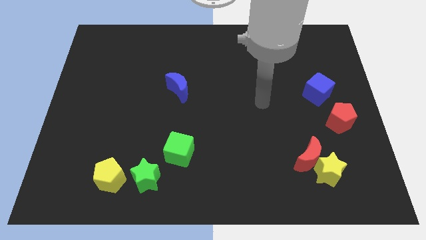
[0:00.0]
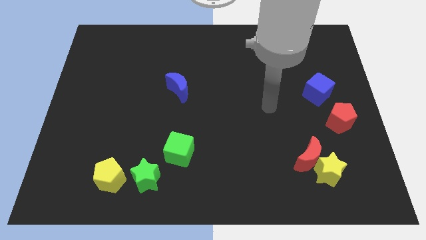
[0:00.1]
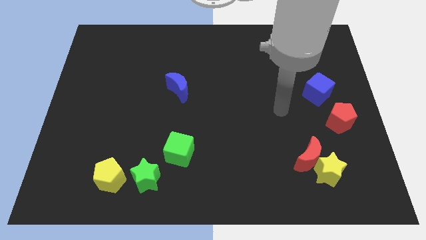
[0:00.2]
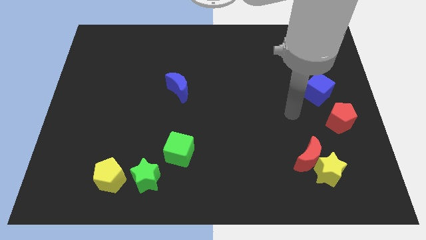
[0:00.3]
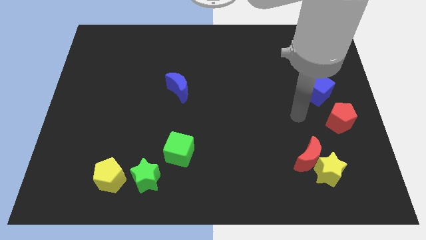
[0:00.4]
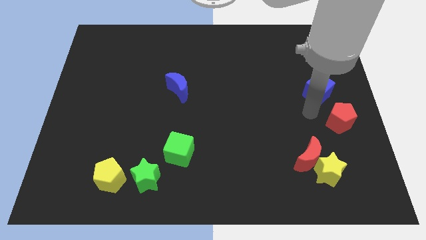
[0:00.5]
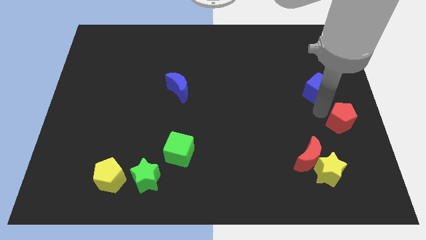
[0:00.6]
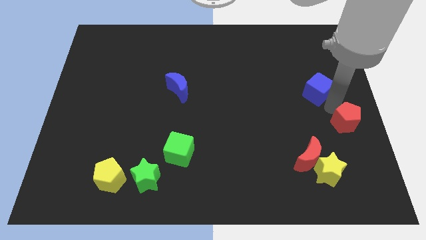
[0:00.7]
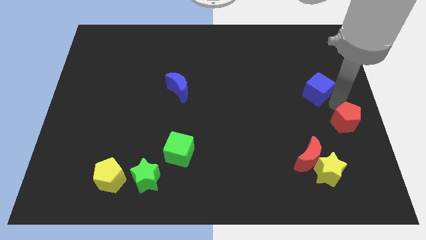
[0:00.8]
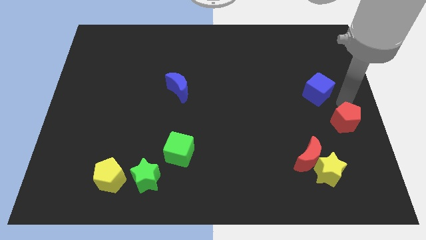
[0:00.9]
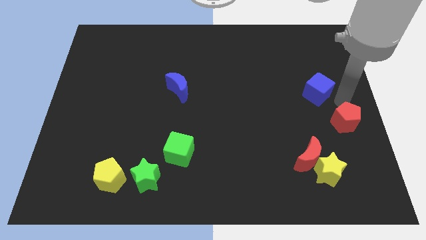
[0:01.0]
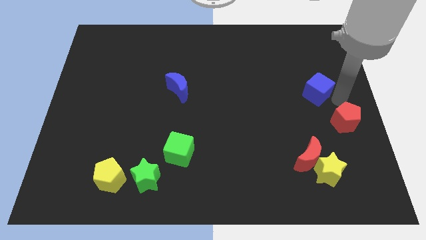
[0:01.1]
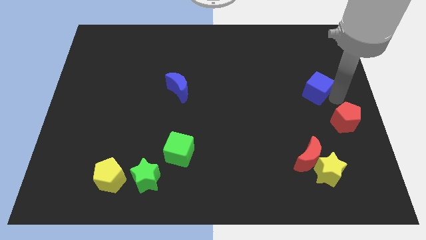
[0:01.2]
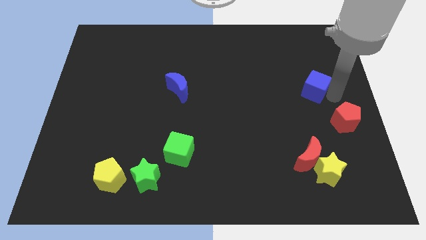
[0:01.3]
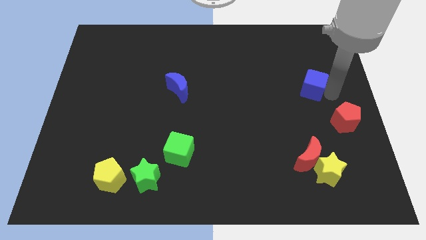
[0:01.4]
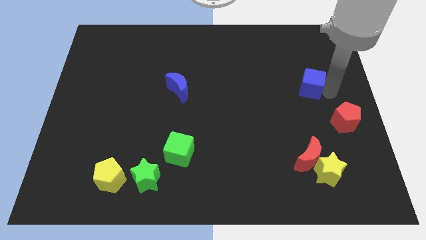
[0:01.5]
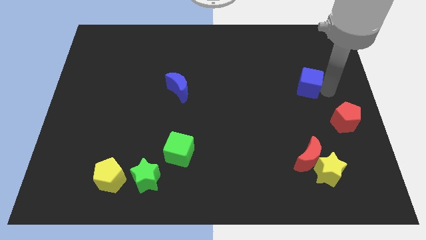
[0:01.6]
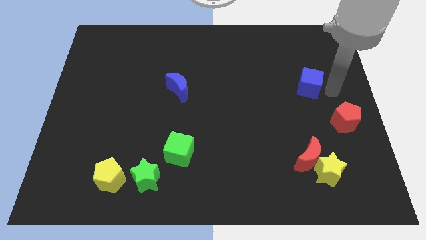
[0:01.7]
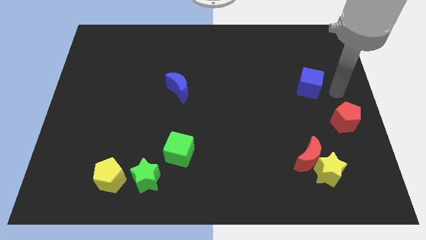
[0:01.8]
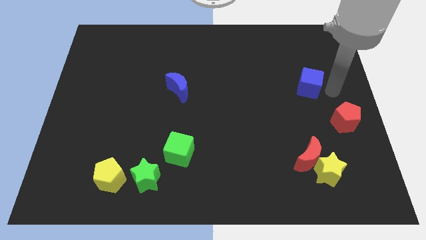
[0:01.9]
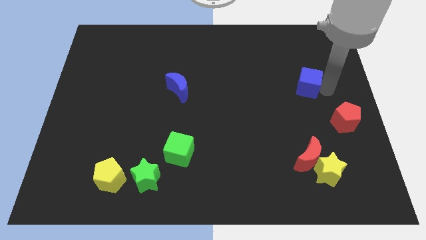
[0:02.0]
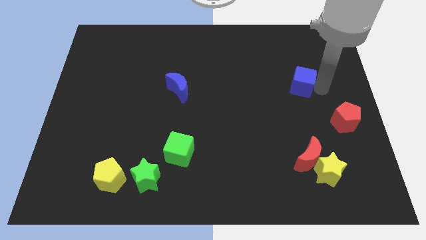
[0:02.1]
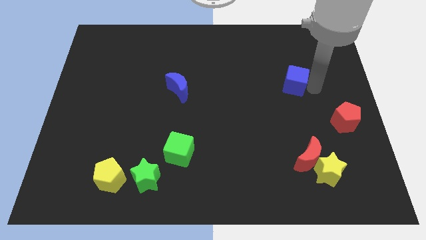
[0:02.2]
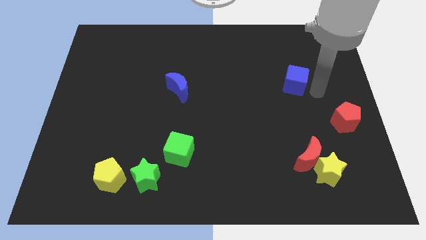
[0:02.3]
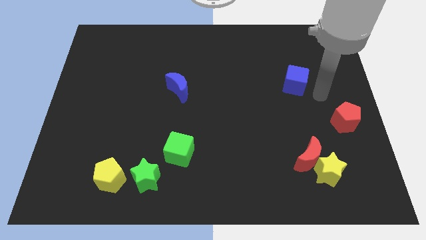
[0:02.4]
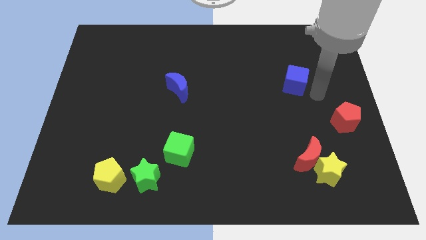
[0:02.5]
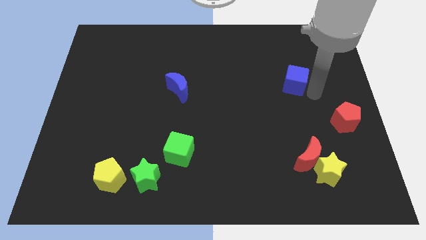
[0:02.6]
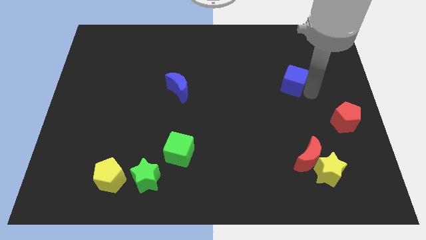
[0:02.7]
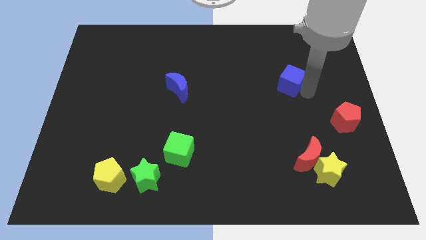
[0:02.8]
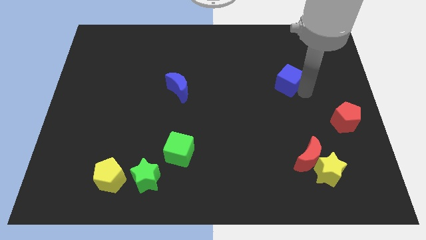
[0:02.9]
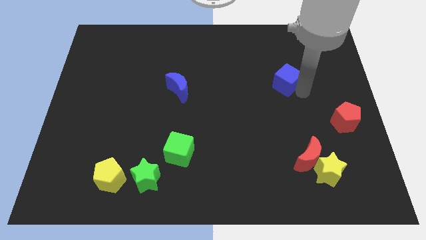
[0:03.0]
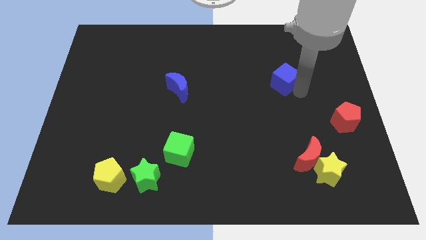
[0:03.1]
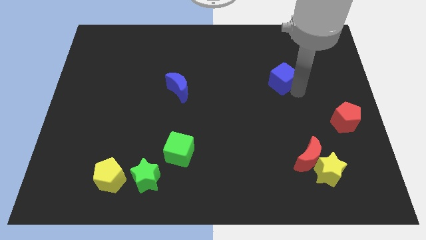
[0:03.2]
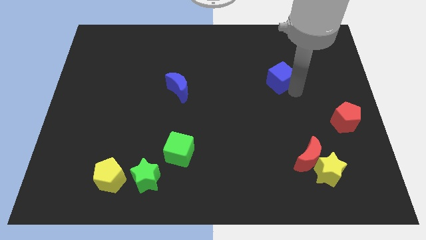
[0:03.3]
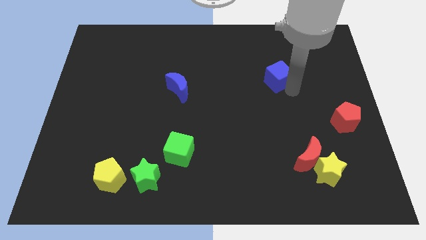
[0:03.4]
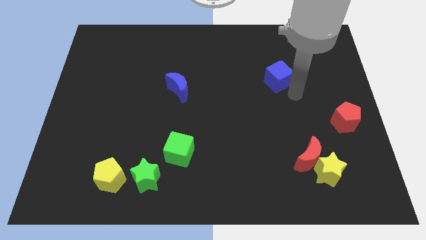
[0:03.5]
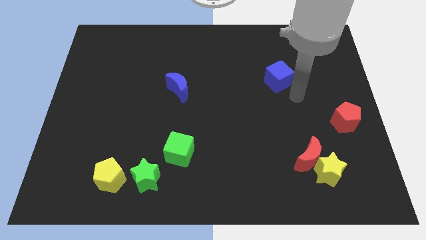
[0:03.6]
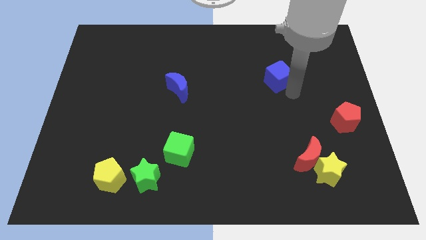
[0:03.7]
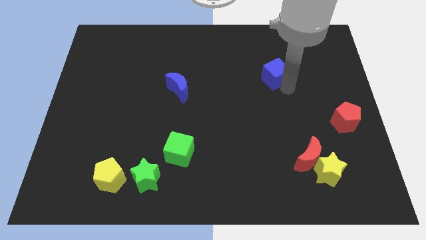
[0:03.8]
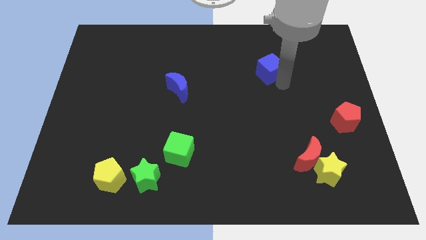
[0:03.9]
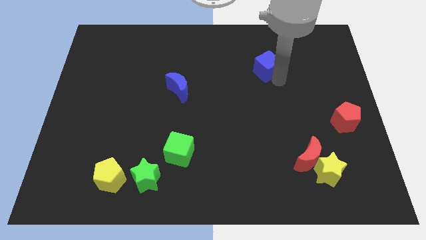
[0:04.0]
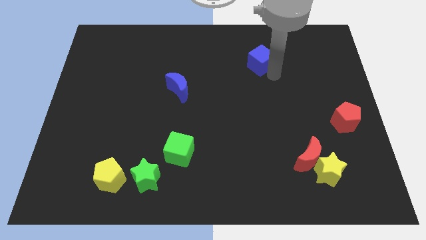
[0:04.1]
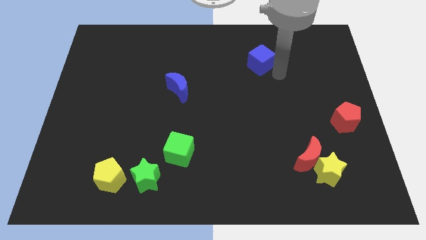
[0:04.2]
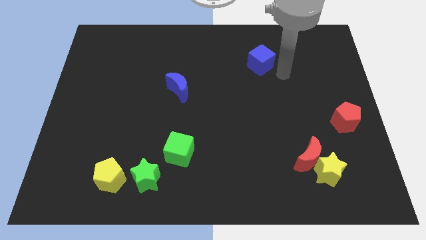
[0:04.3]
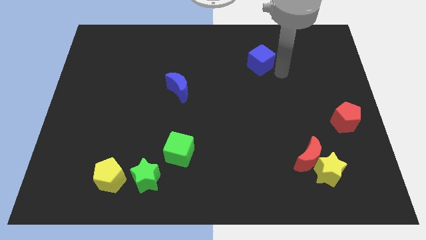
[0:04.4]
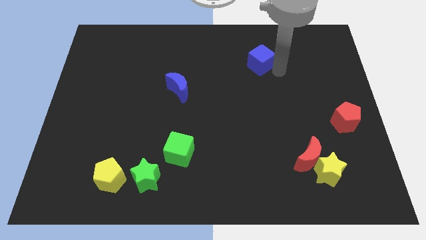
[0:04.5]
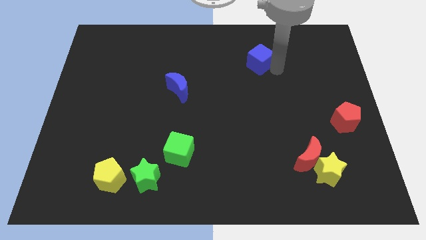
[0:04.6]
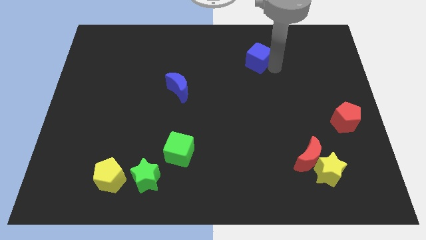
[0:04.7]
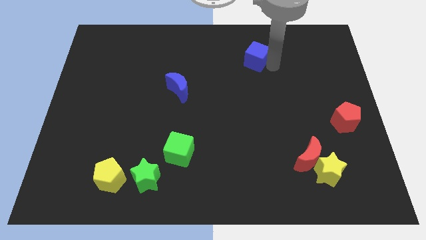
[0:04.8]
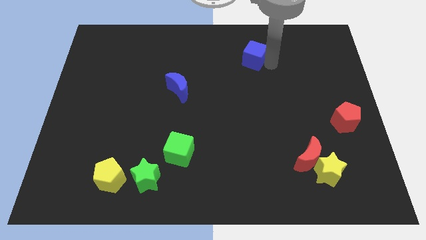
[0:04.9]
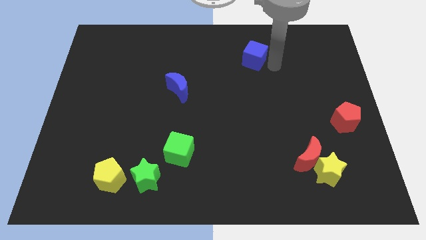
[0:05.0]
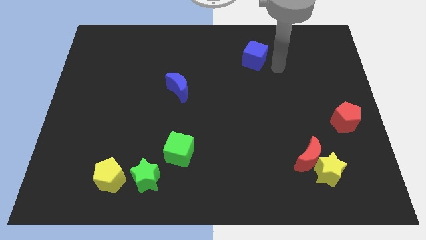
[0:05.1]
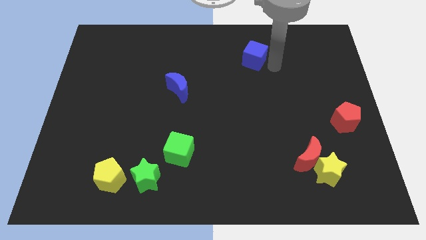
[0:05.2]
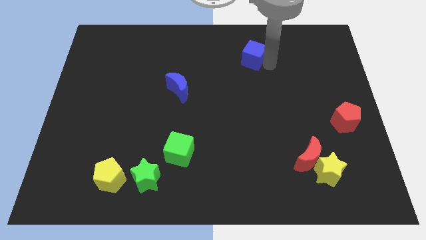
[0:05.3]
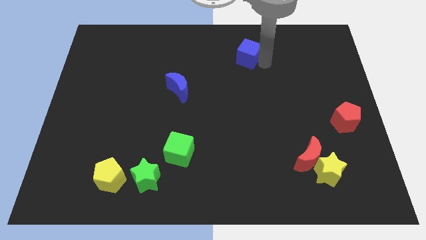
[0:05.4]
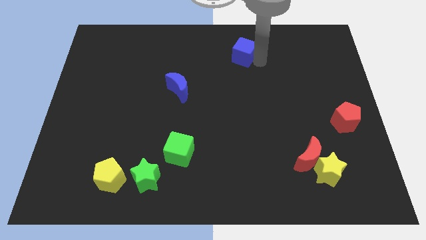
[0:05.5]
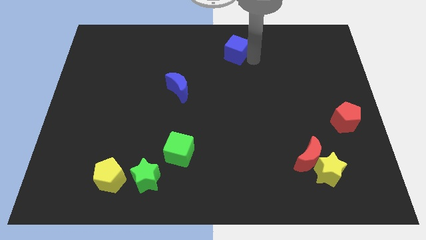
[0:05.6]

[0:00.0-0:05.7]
slide the blue cube to the towards your base
